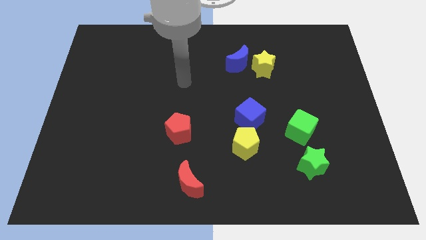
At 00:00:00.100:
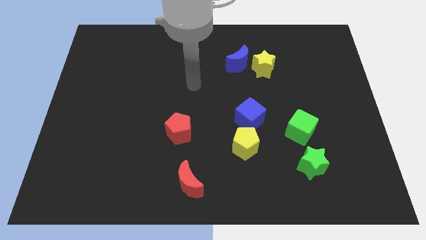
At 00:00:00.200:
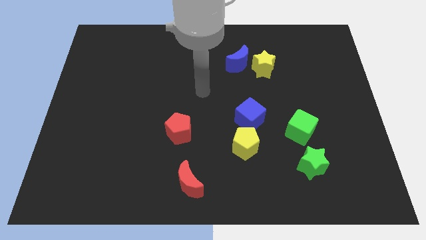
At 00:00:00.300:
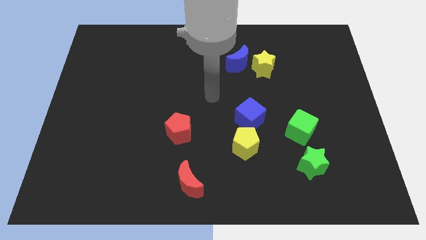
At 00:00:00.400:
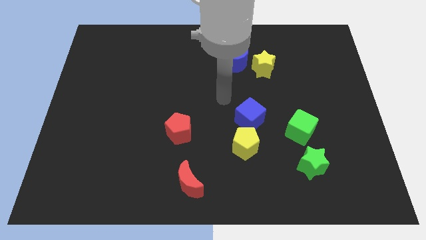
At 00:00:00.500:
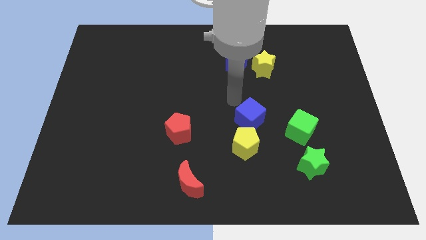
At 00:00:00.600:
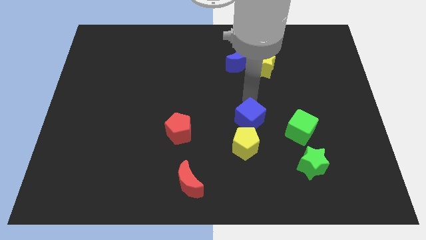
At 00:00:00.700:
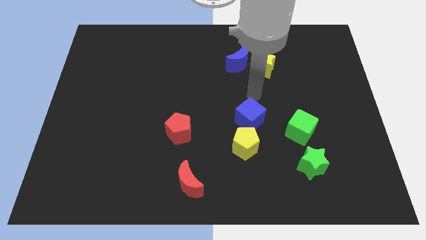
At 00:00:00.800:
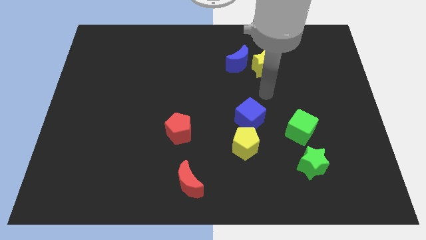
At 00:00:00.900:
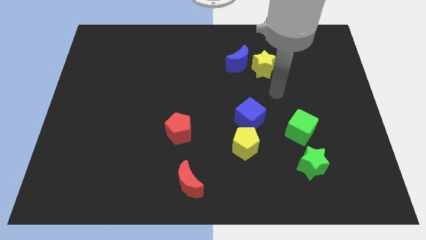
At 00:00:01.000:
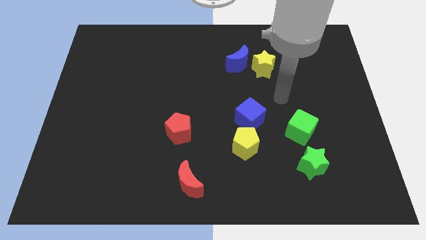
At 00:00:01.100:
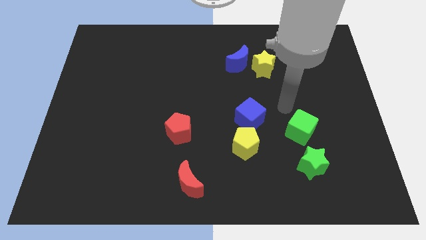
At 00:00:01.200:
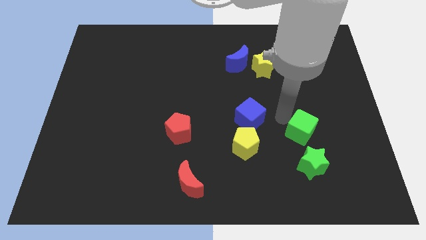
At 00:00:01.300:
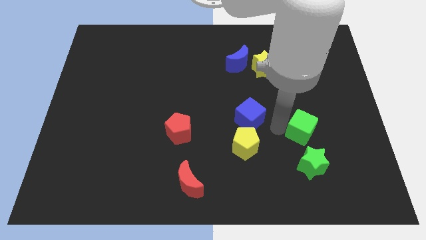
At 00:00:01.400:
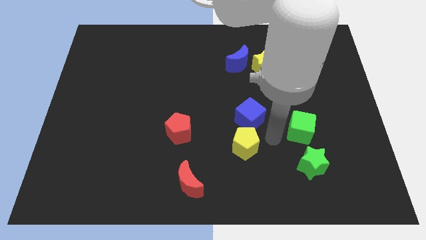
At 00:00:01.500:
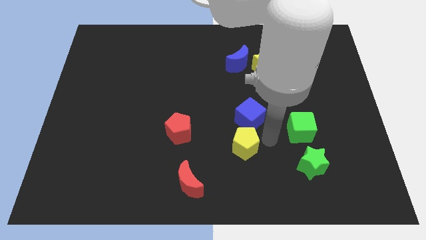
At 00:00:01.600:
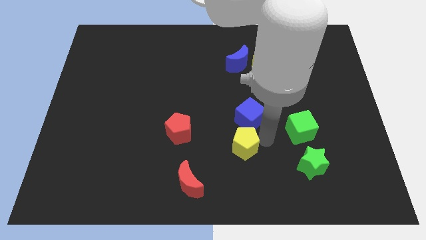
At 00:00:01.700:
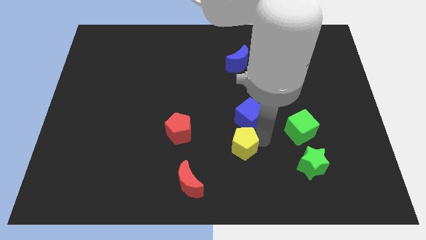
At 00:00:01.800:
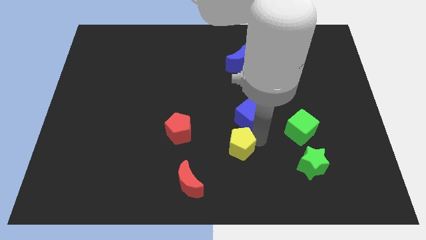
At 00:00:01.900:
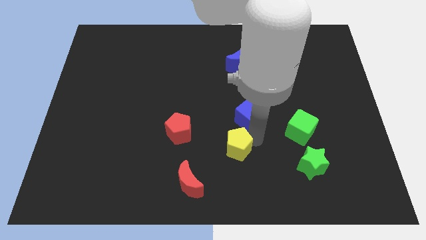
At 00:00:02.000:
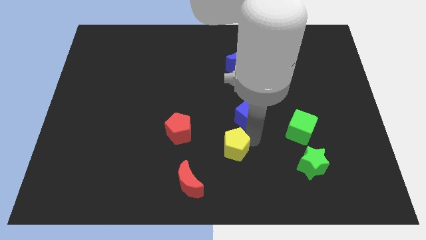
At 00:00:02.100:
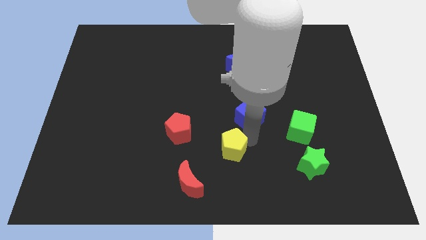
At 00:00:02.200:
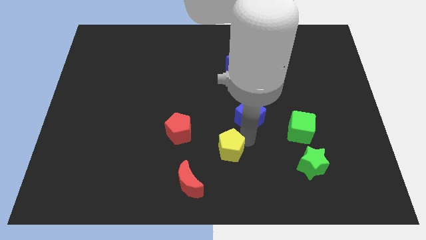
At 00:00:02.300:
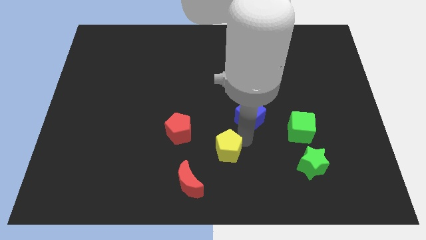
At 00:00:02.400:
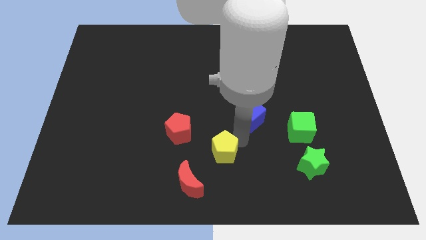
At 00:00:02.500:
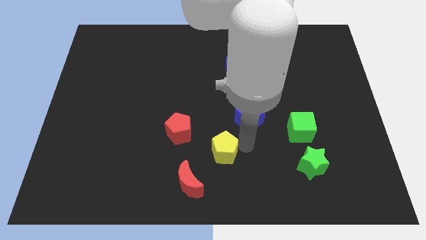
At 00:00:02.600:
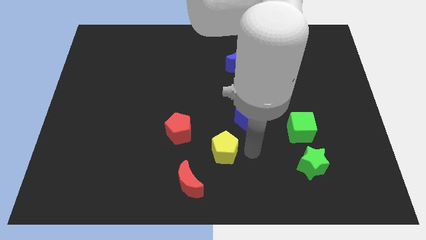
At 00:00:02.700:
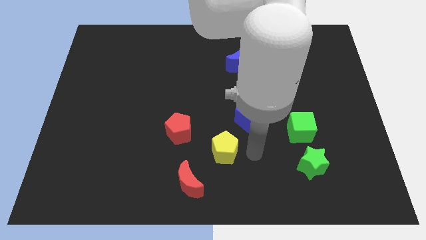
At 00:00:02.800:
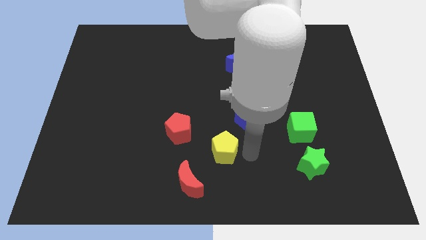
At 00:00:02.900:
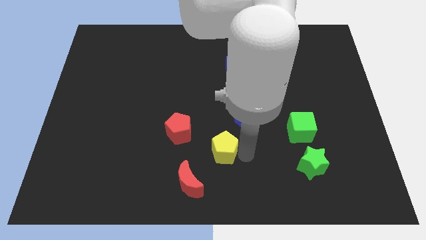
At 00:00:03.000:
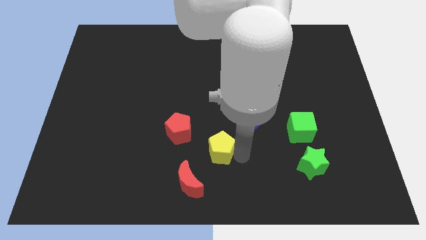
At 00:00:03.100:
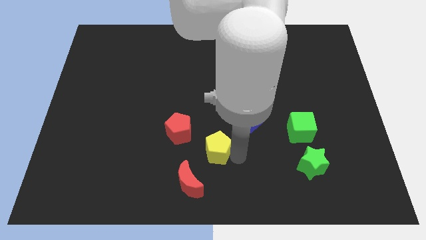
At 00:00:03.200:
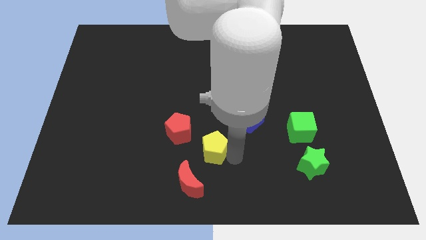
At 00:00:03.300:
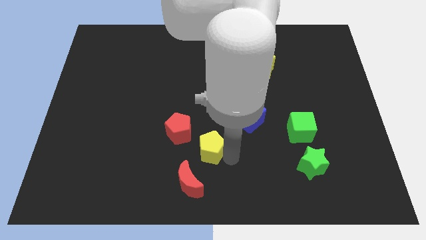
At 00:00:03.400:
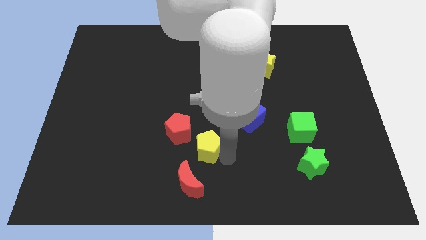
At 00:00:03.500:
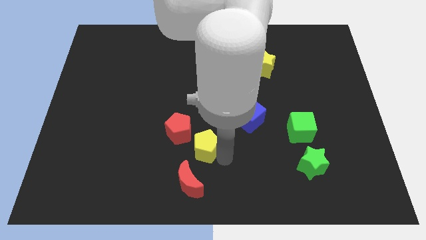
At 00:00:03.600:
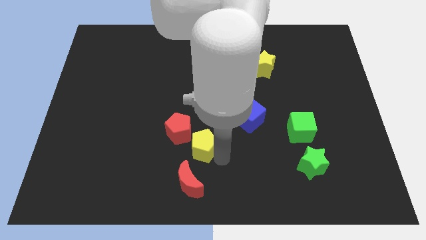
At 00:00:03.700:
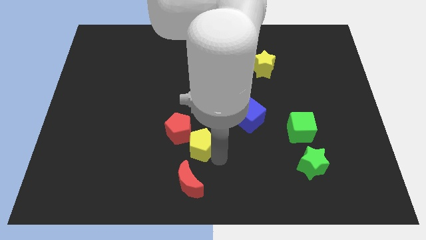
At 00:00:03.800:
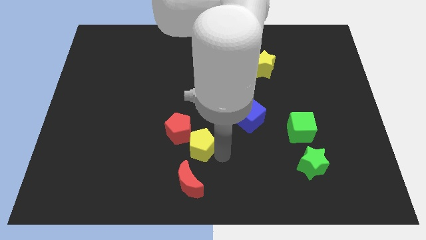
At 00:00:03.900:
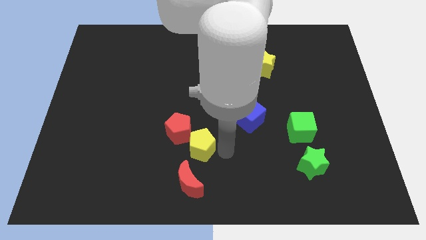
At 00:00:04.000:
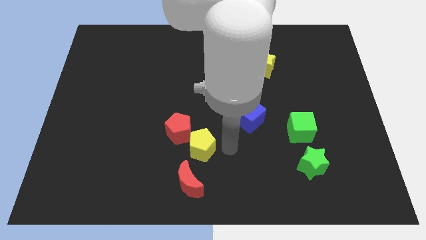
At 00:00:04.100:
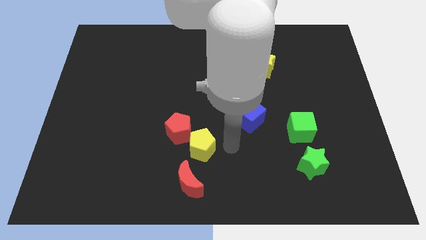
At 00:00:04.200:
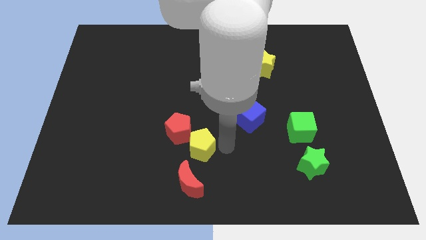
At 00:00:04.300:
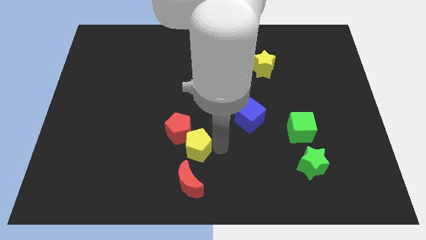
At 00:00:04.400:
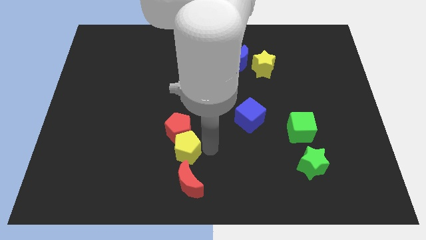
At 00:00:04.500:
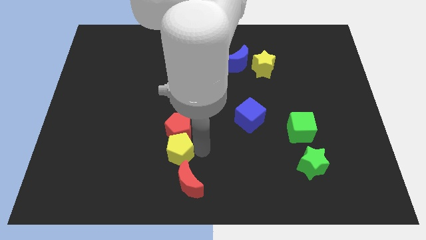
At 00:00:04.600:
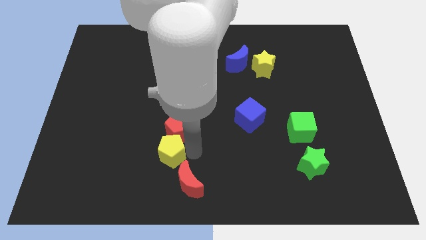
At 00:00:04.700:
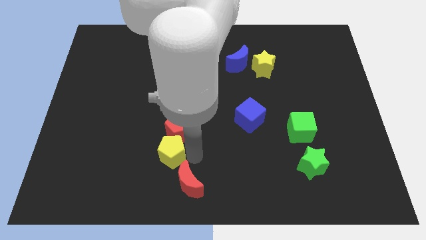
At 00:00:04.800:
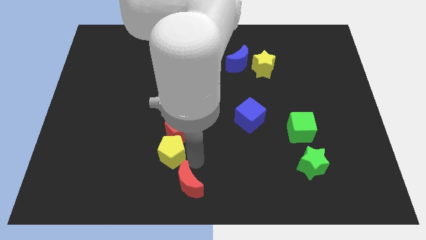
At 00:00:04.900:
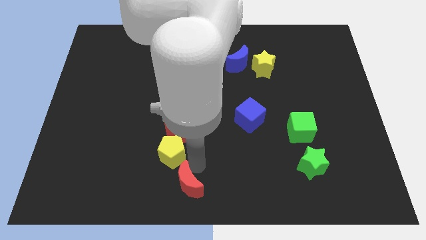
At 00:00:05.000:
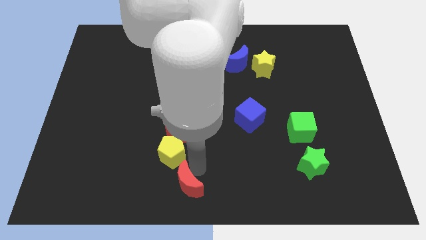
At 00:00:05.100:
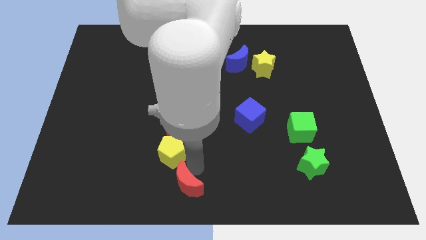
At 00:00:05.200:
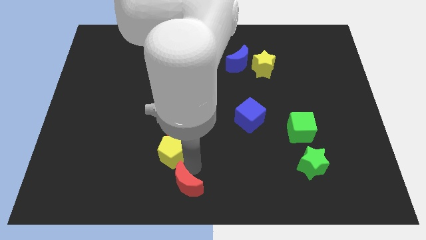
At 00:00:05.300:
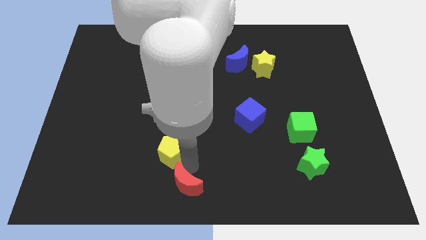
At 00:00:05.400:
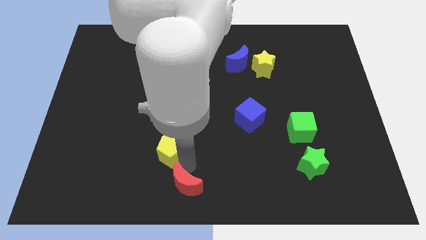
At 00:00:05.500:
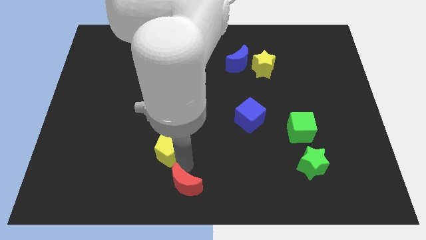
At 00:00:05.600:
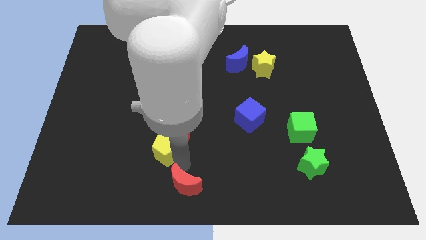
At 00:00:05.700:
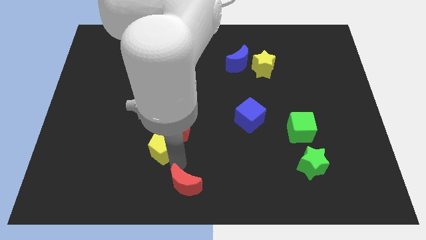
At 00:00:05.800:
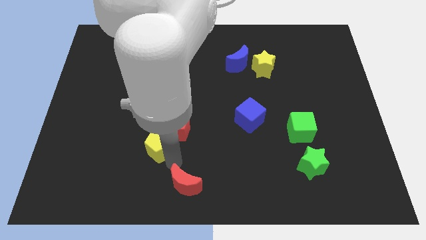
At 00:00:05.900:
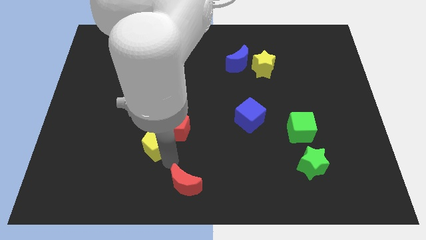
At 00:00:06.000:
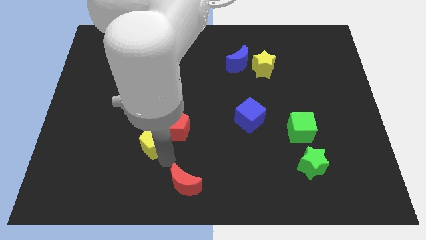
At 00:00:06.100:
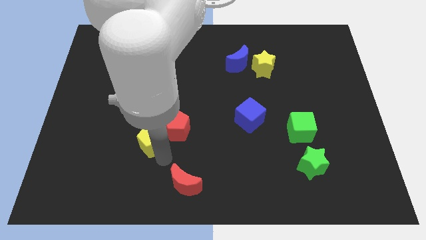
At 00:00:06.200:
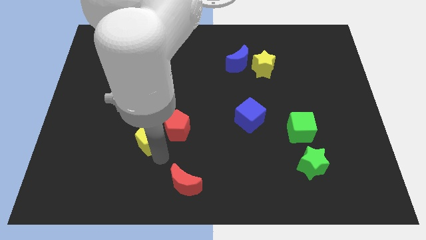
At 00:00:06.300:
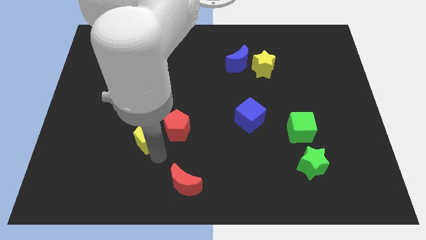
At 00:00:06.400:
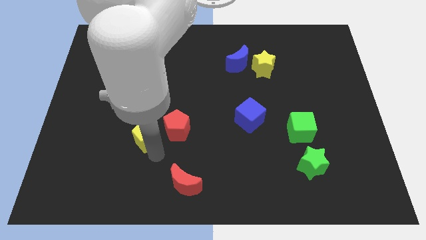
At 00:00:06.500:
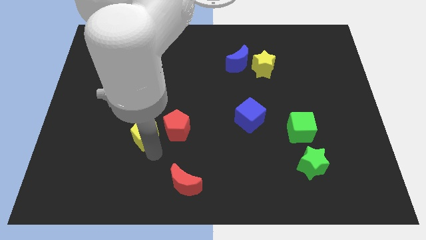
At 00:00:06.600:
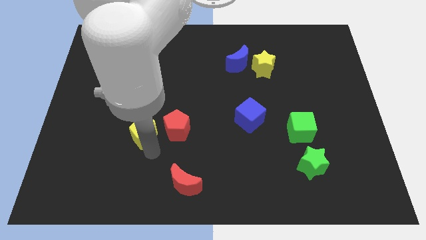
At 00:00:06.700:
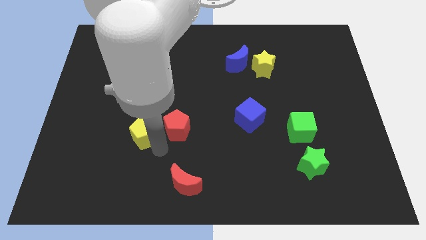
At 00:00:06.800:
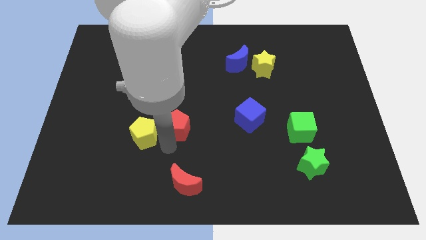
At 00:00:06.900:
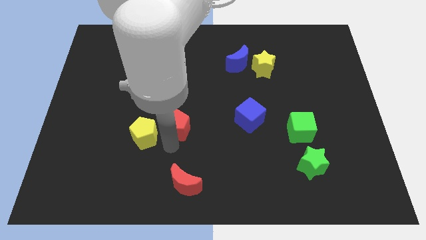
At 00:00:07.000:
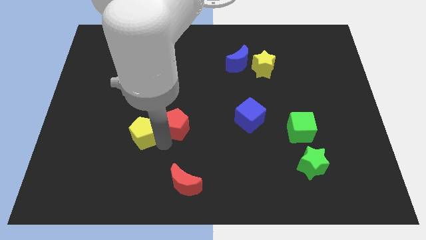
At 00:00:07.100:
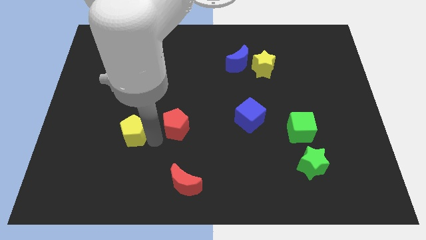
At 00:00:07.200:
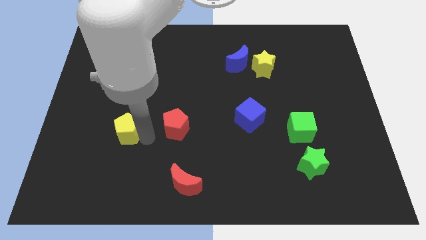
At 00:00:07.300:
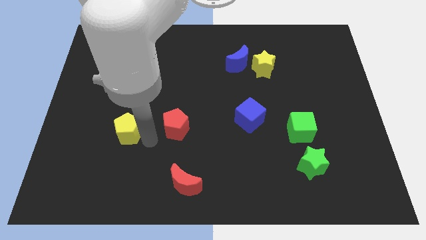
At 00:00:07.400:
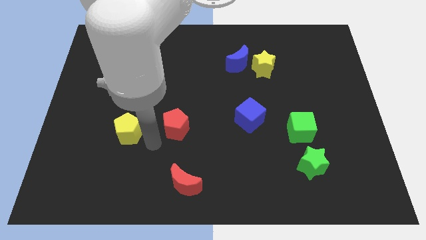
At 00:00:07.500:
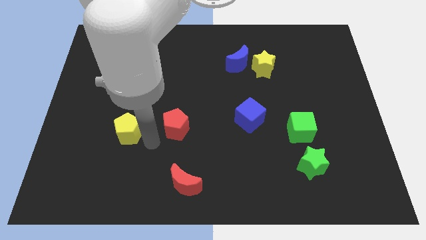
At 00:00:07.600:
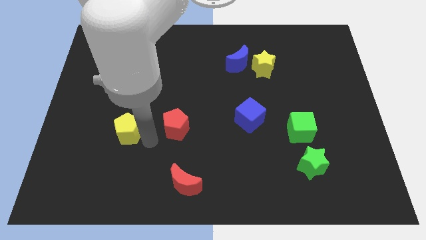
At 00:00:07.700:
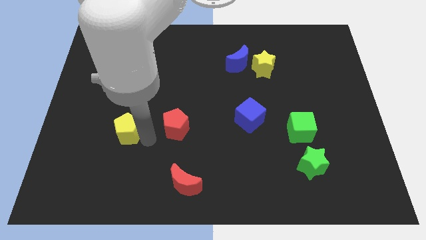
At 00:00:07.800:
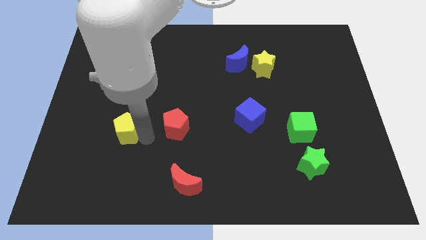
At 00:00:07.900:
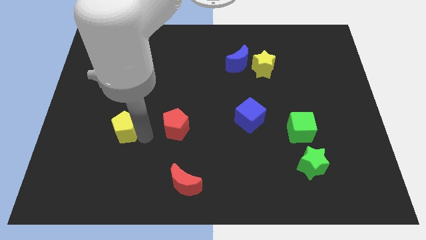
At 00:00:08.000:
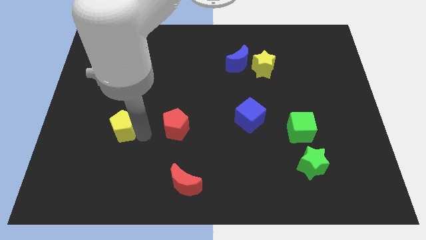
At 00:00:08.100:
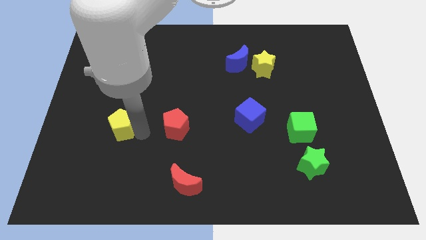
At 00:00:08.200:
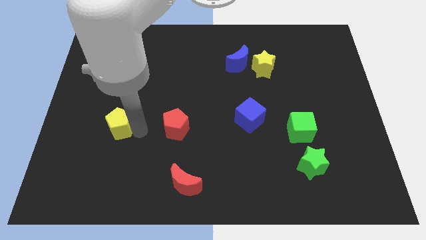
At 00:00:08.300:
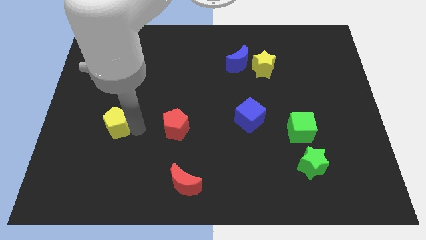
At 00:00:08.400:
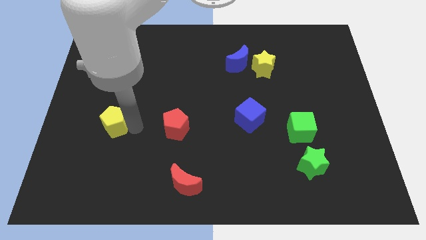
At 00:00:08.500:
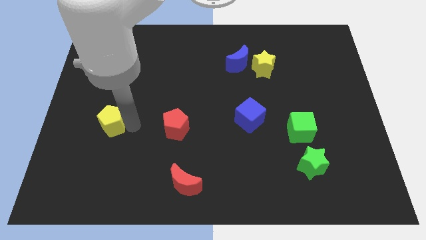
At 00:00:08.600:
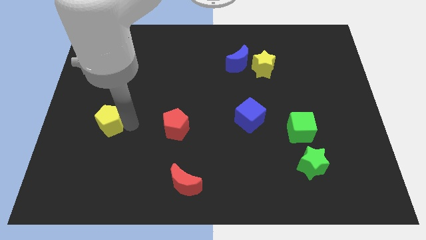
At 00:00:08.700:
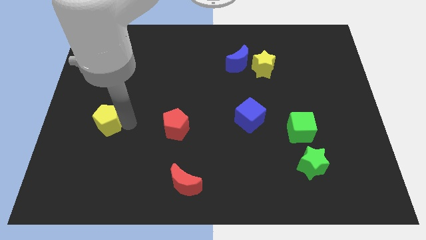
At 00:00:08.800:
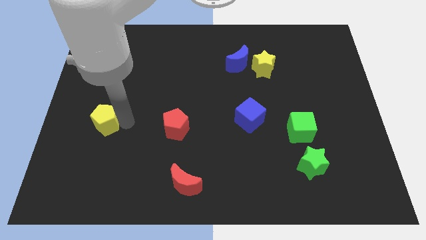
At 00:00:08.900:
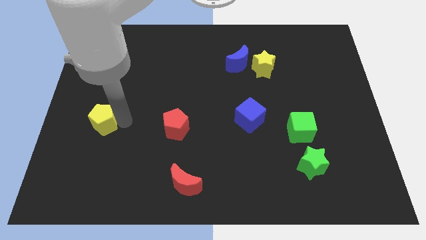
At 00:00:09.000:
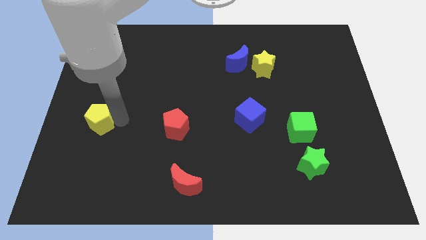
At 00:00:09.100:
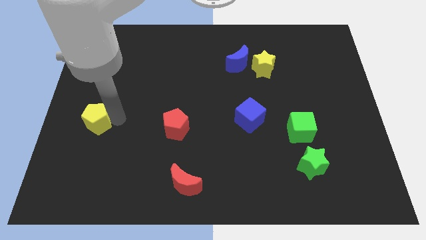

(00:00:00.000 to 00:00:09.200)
slide the yellow pentagon to the center left
